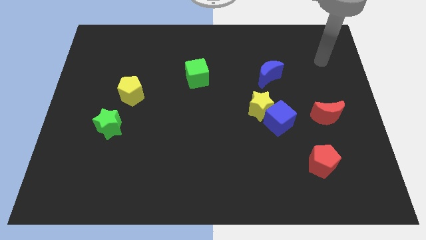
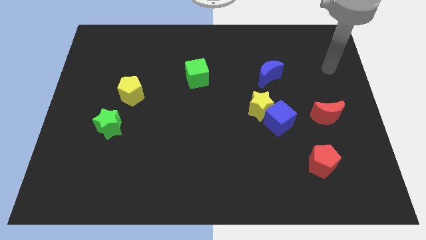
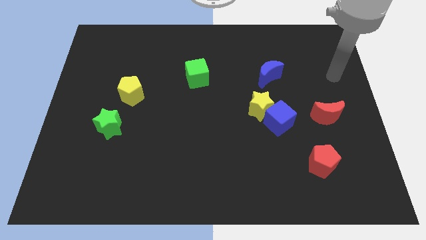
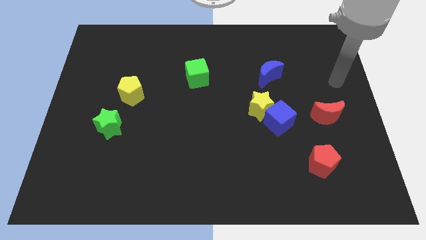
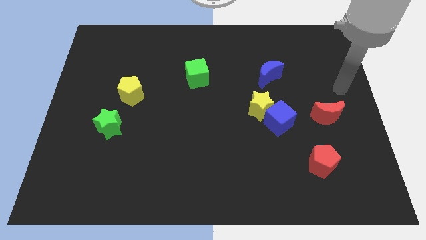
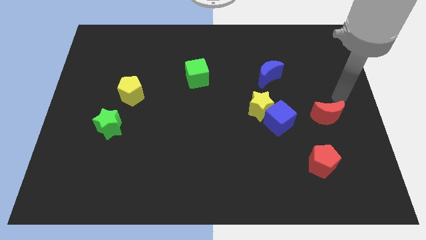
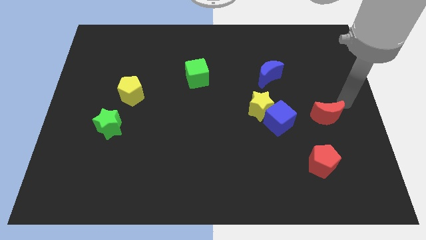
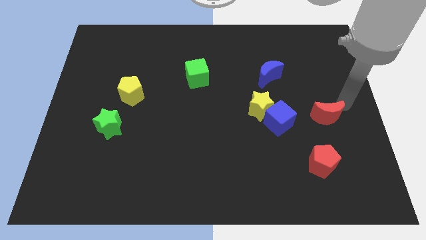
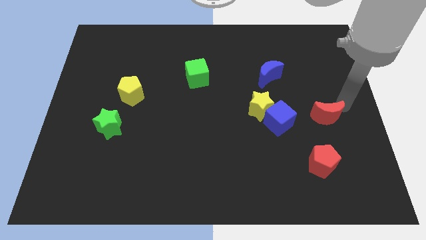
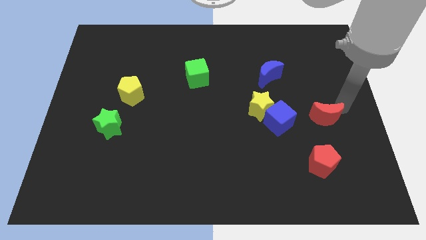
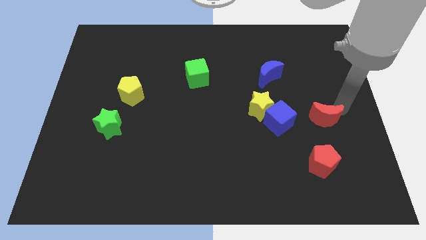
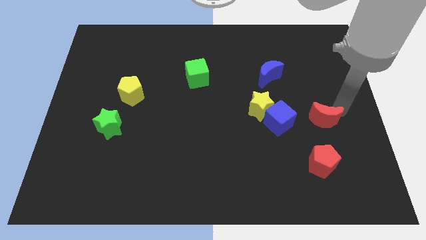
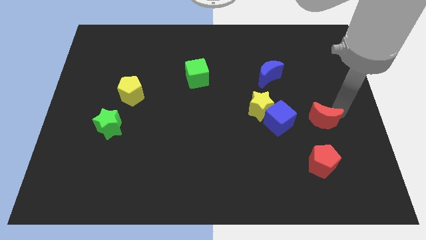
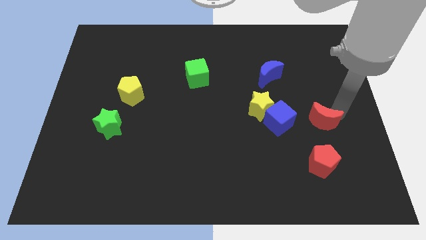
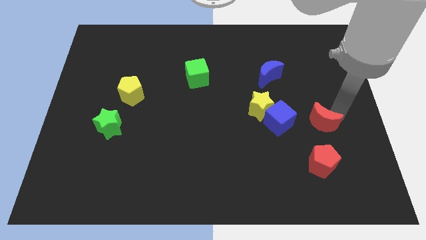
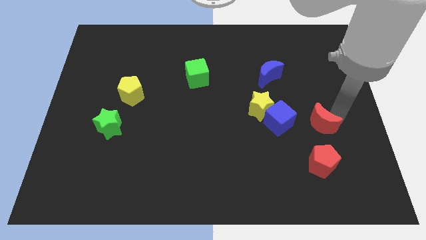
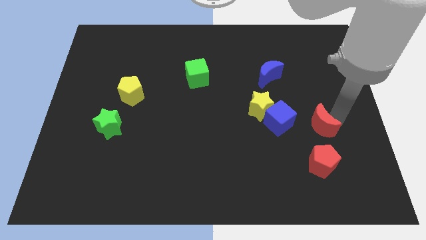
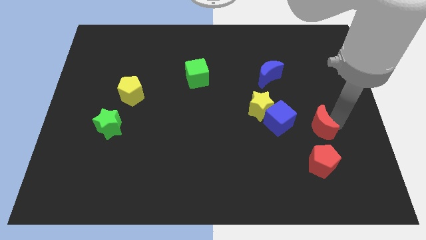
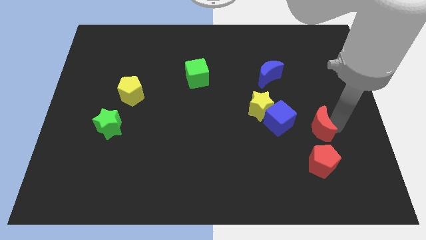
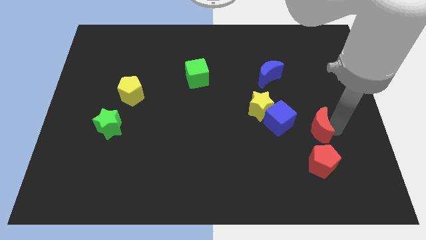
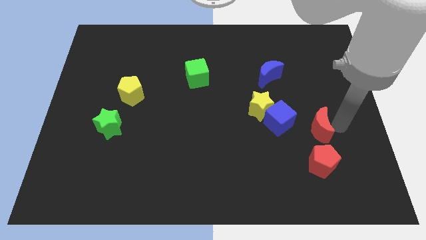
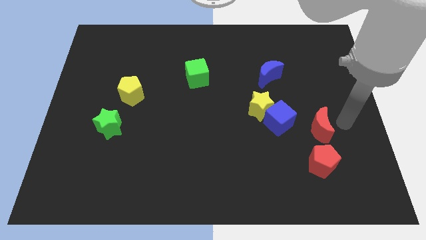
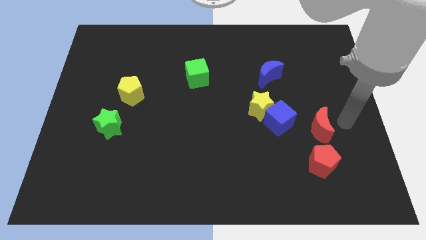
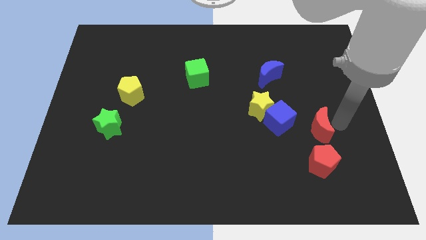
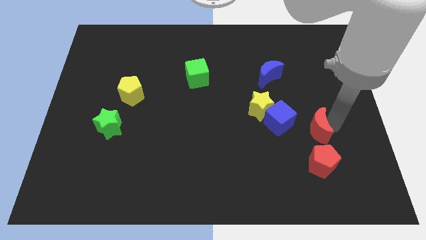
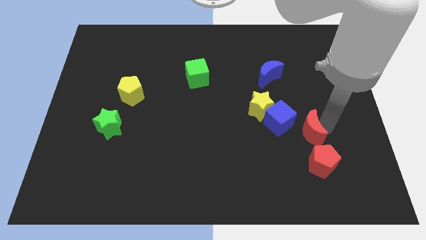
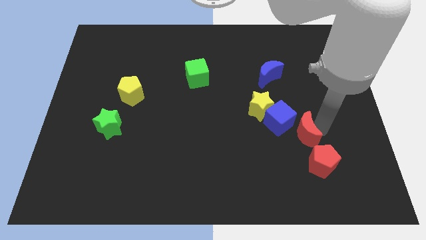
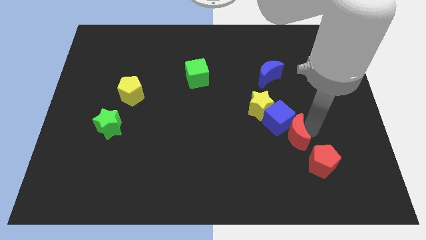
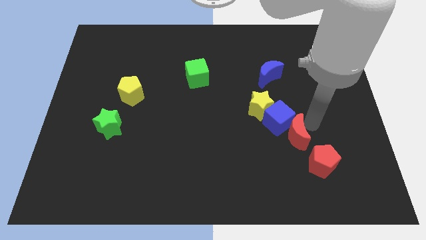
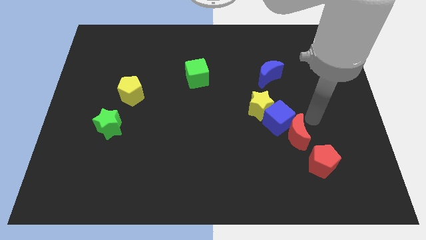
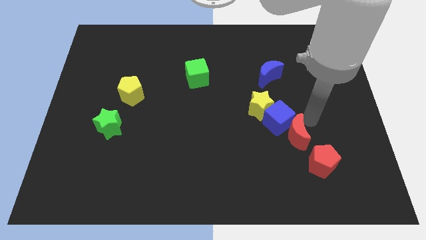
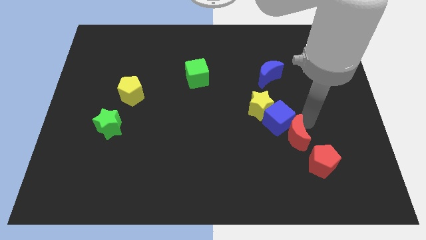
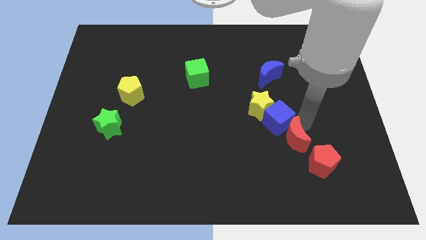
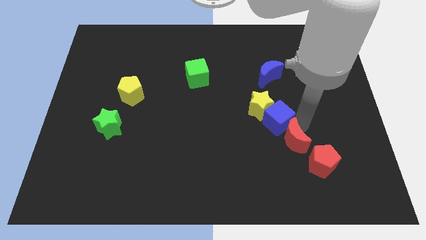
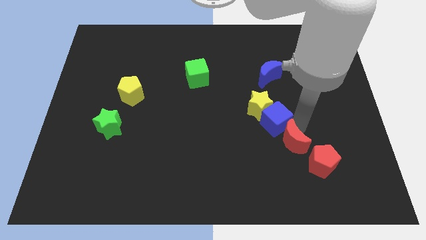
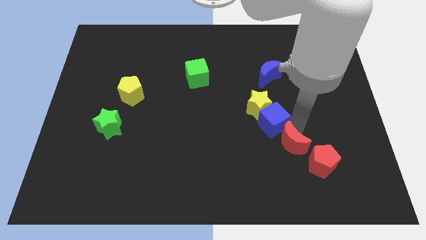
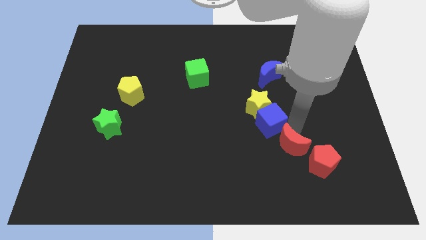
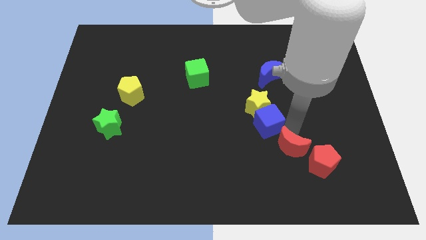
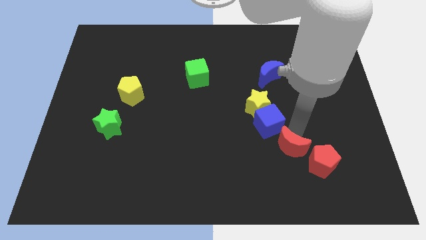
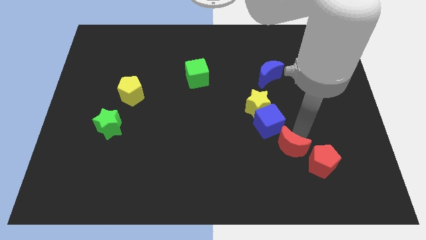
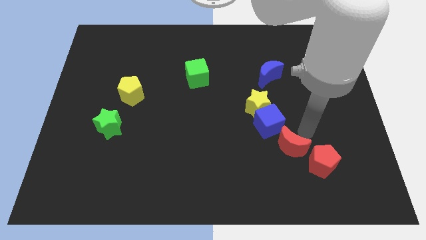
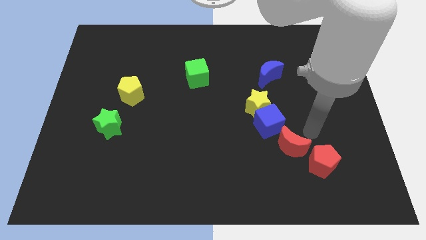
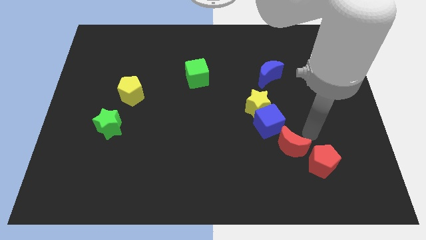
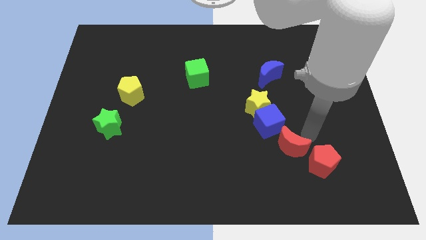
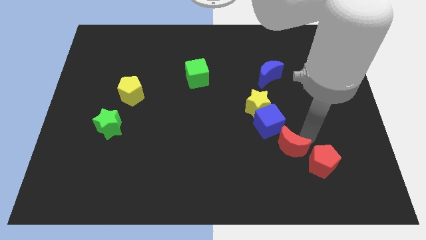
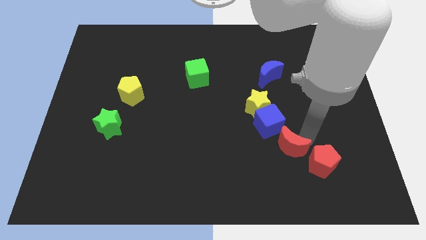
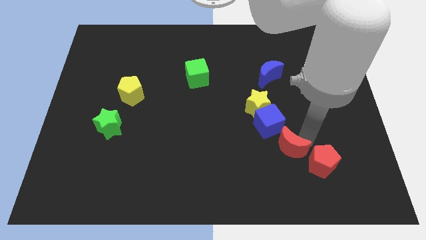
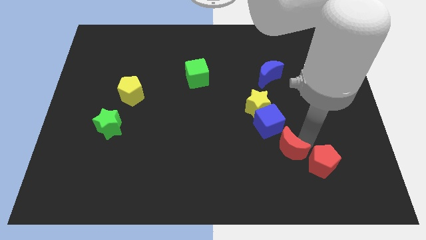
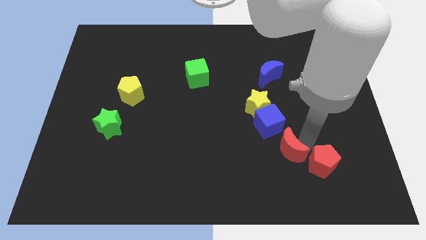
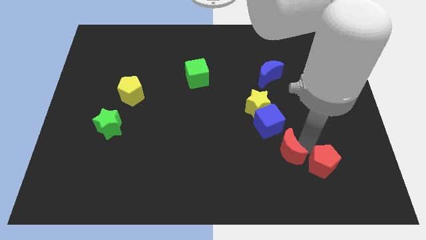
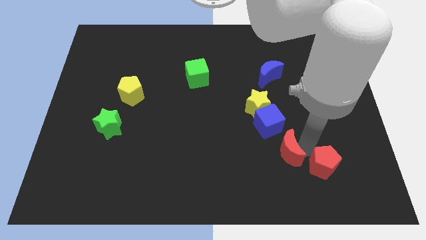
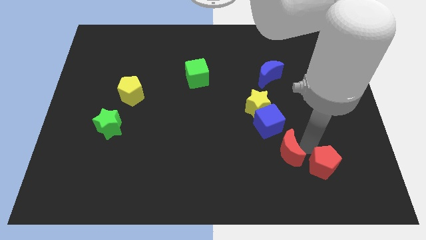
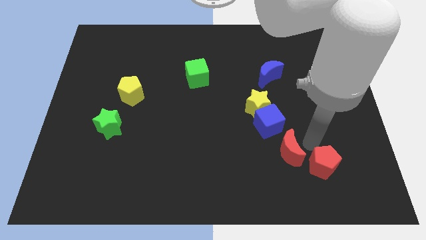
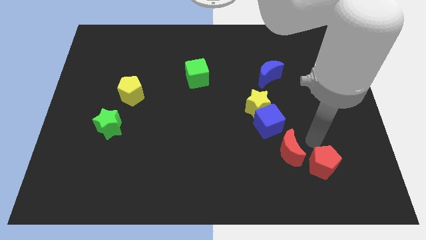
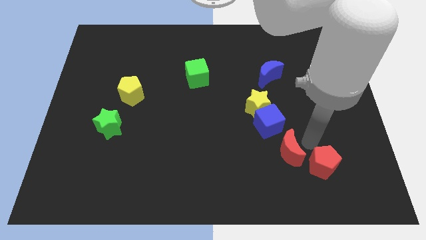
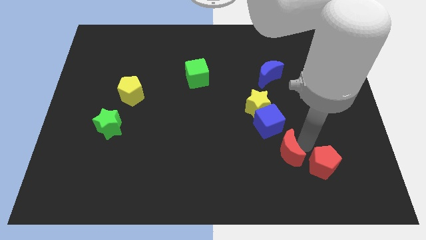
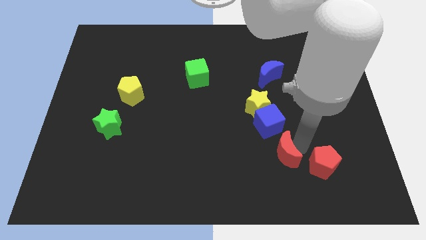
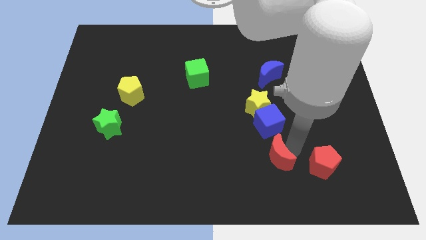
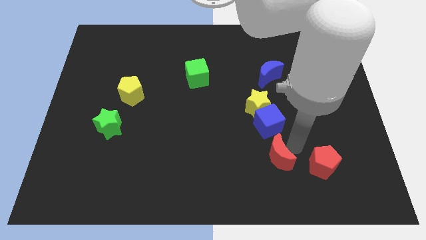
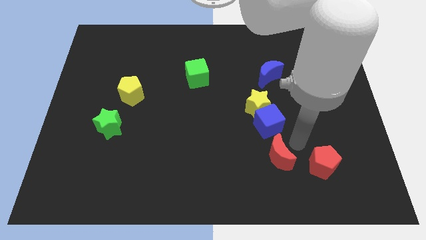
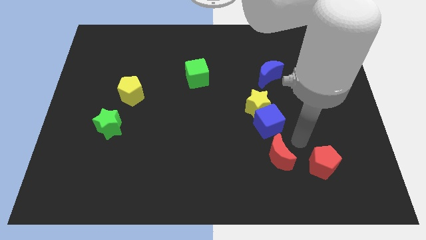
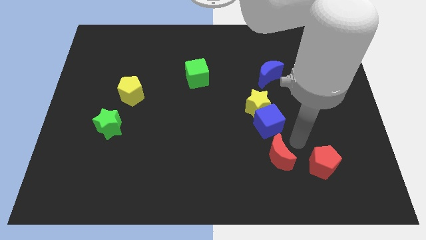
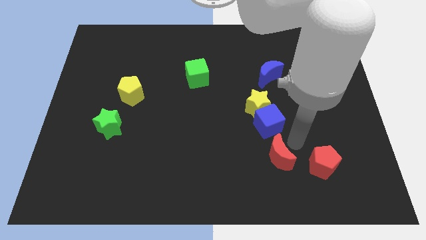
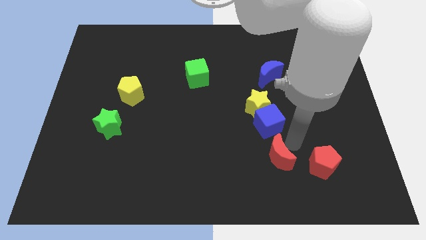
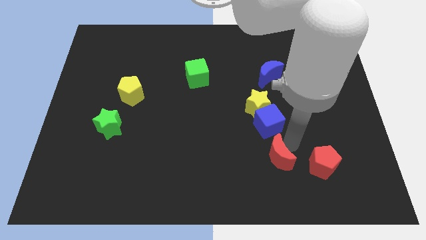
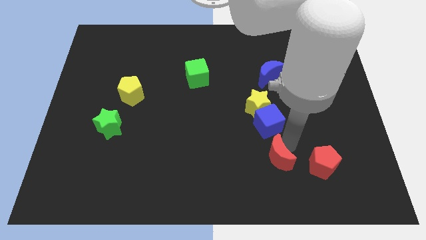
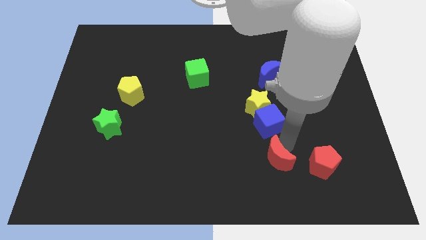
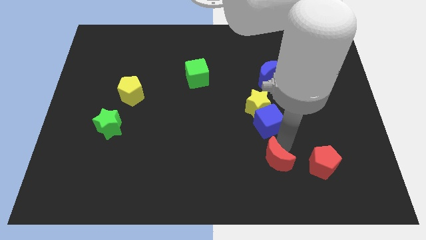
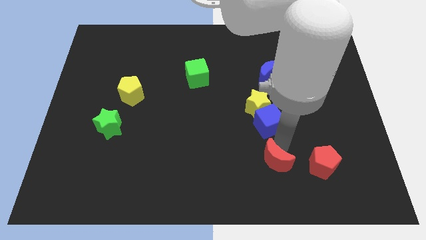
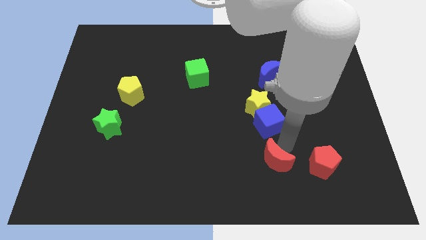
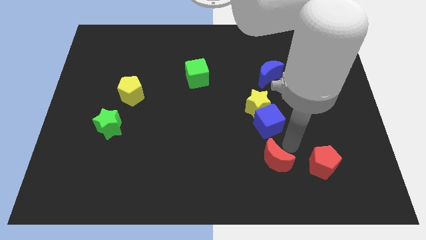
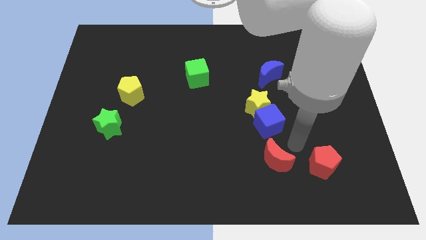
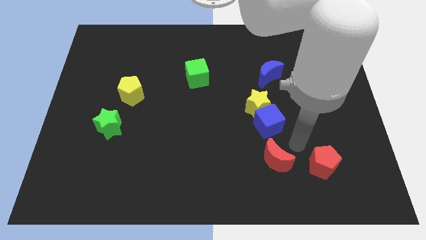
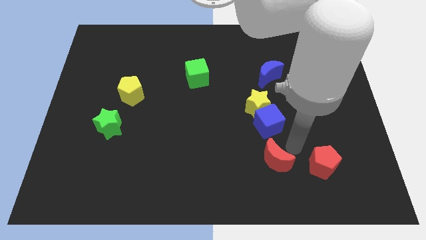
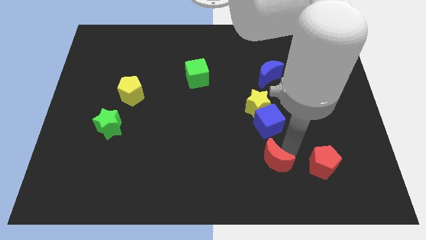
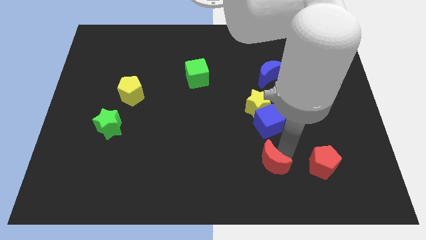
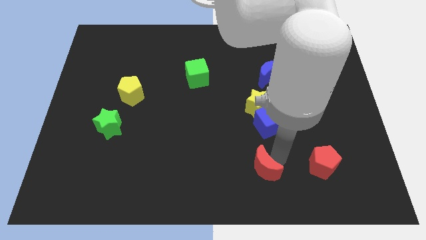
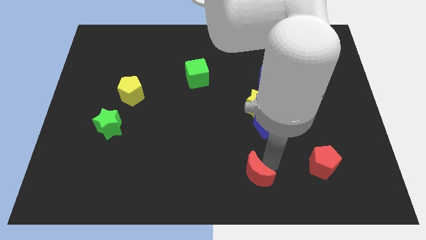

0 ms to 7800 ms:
push the red moon to the bottom side
